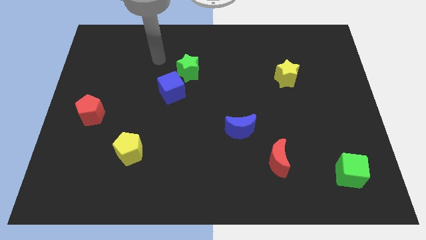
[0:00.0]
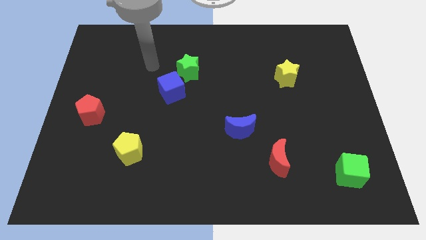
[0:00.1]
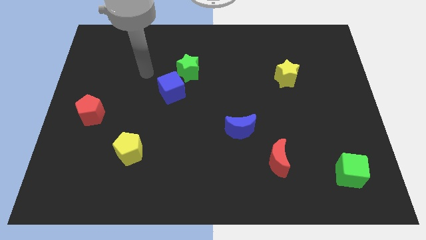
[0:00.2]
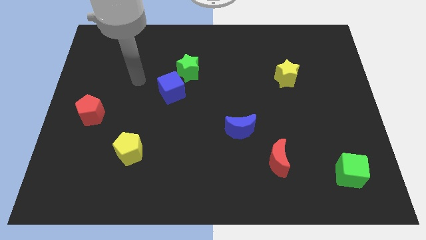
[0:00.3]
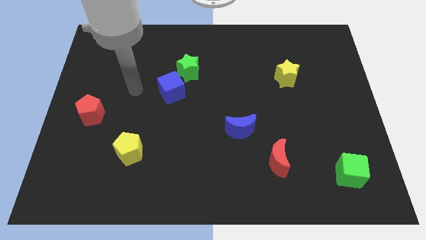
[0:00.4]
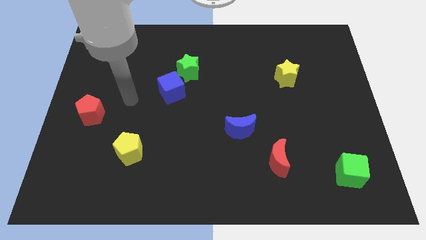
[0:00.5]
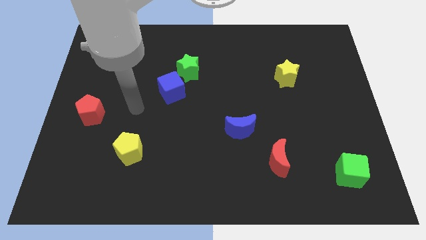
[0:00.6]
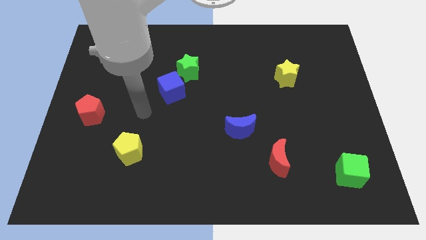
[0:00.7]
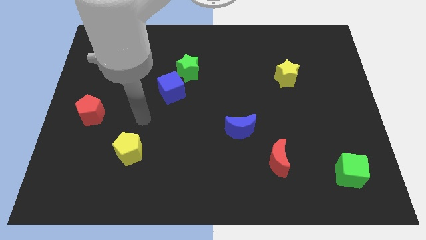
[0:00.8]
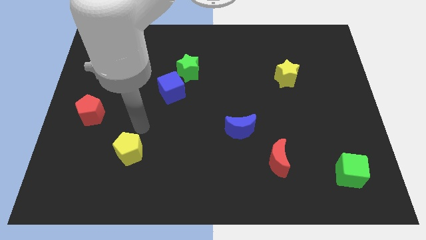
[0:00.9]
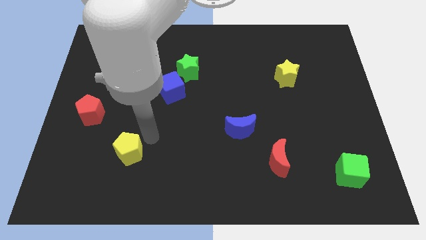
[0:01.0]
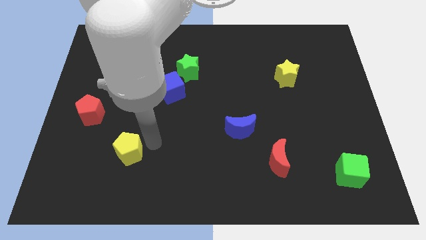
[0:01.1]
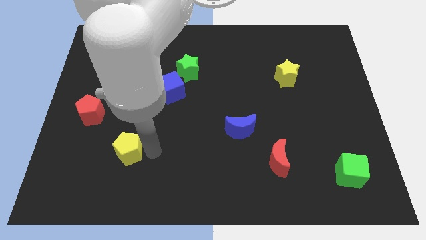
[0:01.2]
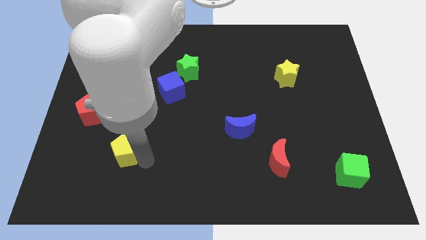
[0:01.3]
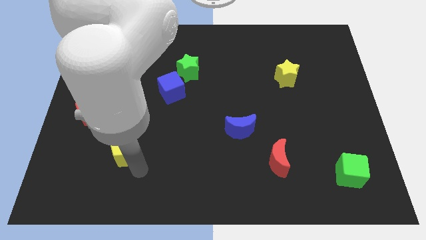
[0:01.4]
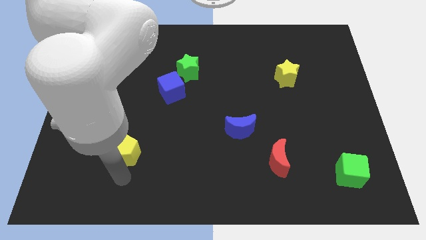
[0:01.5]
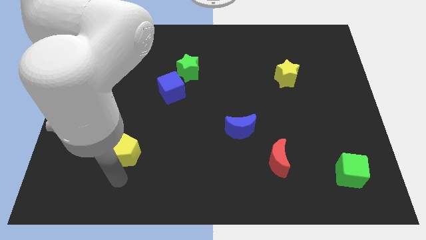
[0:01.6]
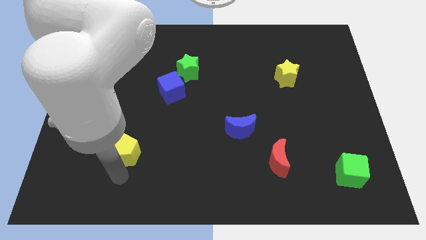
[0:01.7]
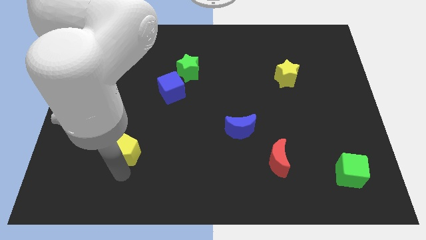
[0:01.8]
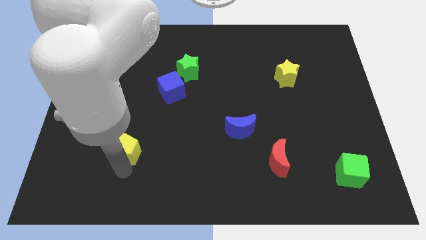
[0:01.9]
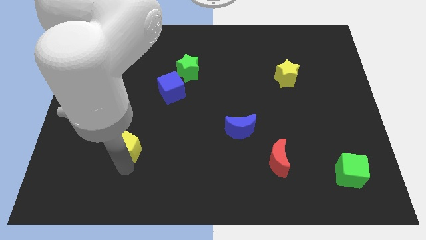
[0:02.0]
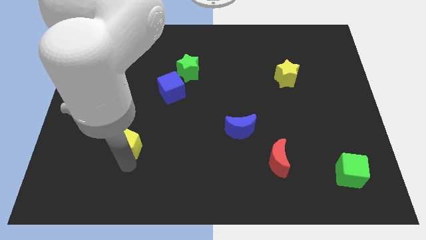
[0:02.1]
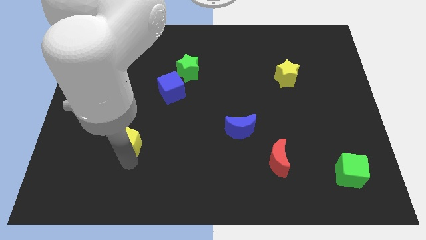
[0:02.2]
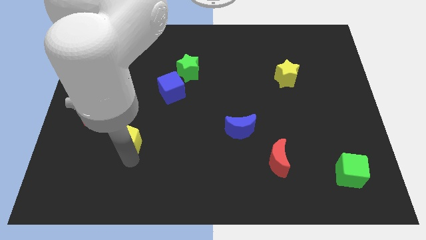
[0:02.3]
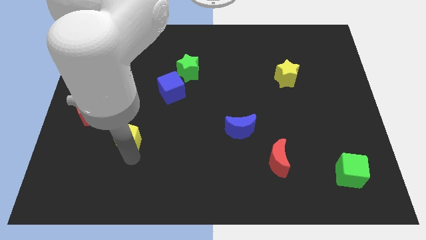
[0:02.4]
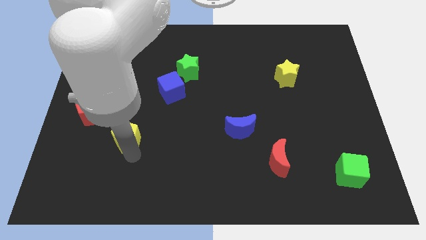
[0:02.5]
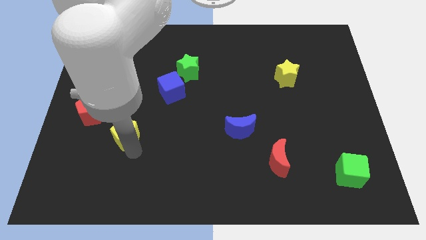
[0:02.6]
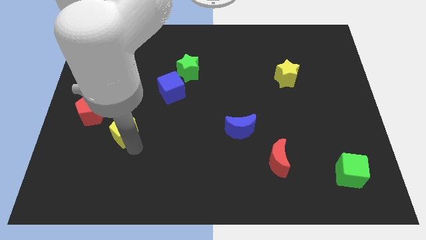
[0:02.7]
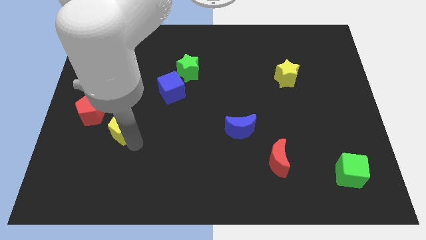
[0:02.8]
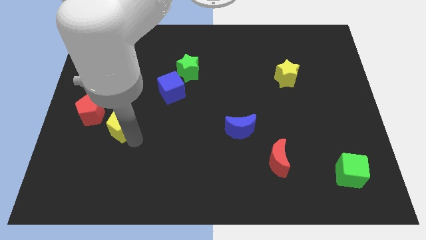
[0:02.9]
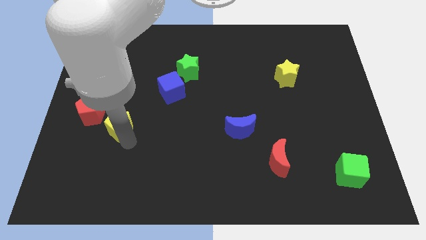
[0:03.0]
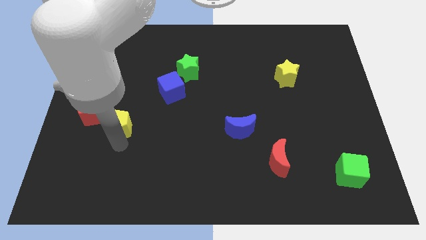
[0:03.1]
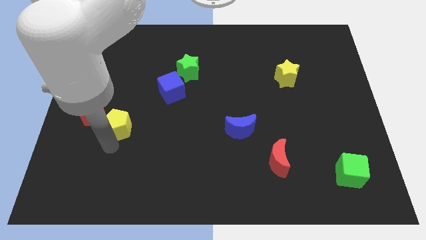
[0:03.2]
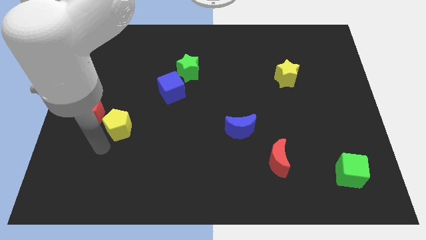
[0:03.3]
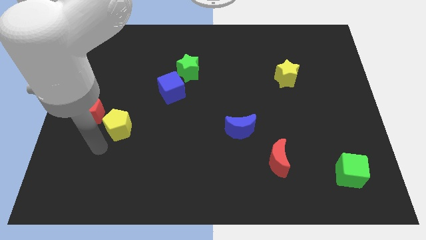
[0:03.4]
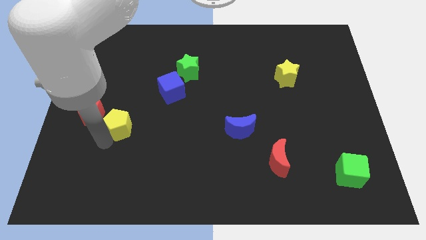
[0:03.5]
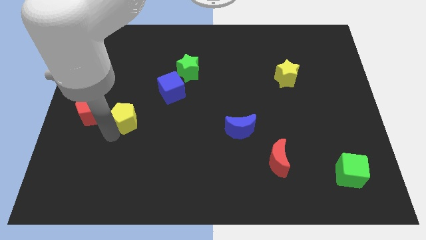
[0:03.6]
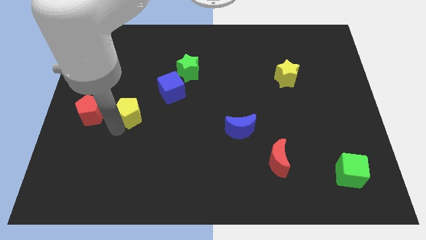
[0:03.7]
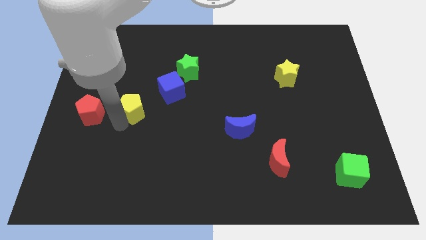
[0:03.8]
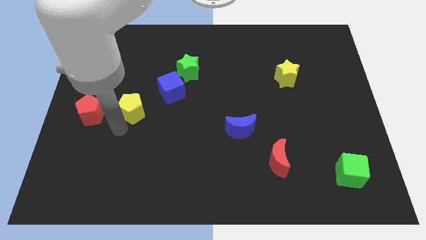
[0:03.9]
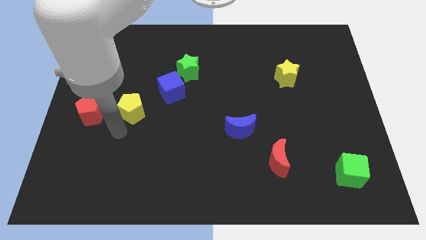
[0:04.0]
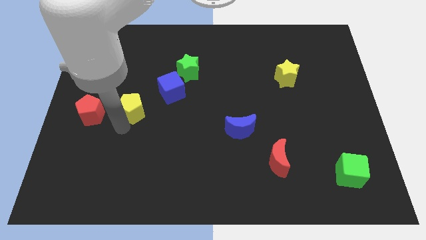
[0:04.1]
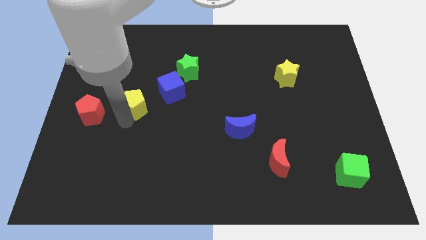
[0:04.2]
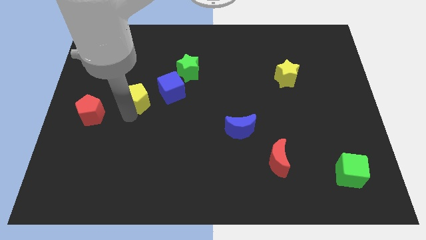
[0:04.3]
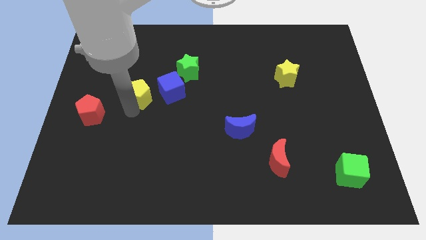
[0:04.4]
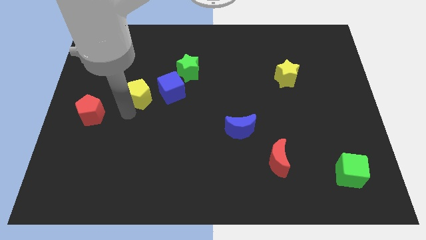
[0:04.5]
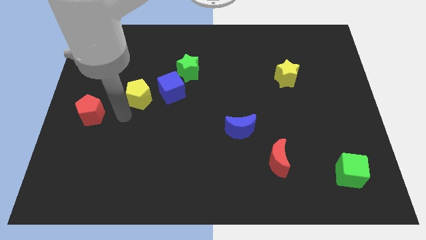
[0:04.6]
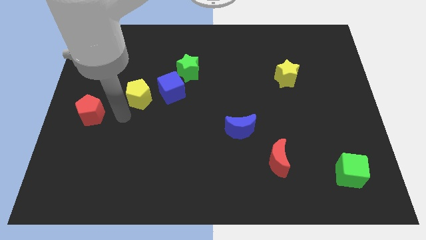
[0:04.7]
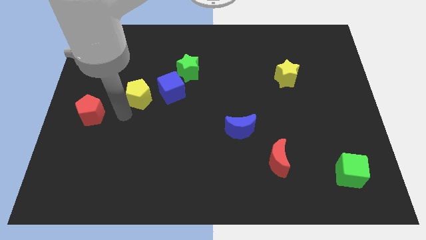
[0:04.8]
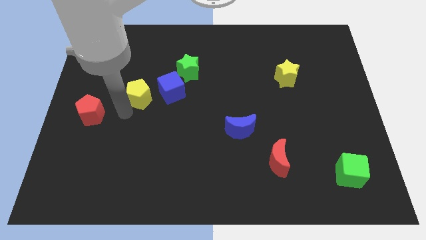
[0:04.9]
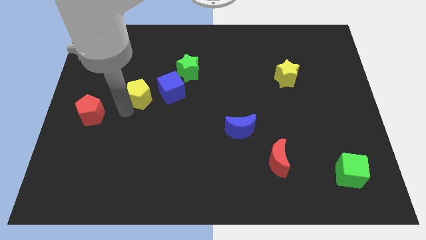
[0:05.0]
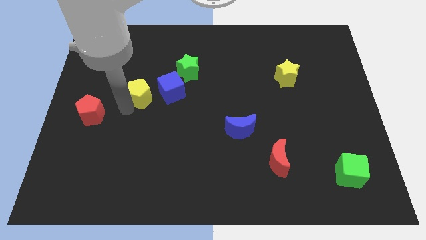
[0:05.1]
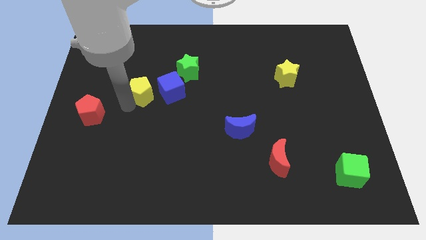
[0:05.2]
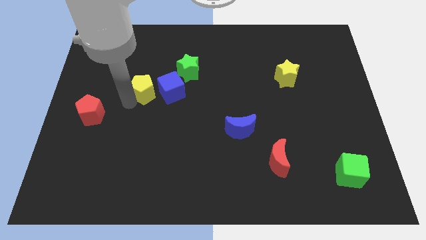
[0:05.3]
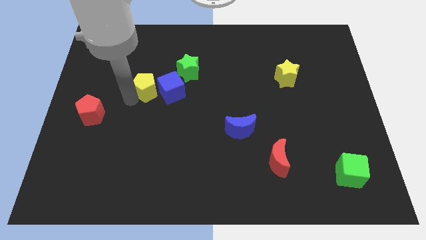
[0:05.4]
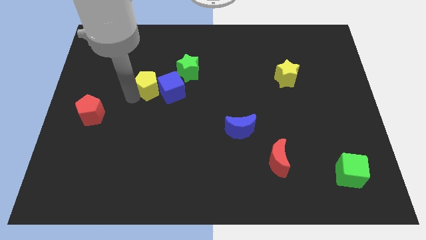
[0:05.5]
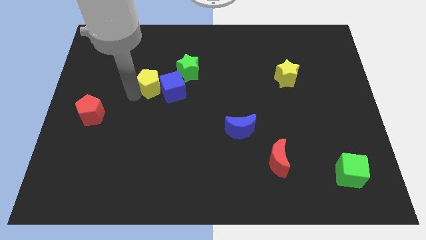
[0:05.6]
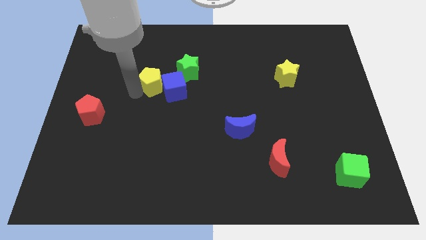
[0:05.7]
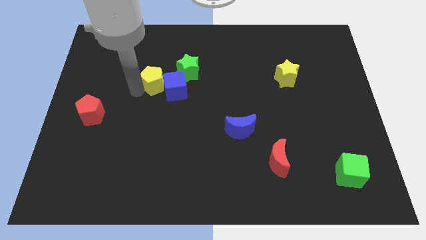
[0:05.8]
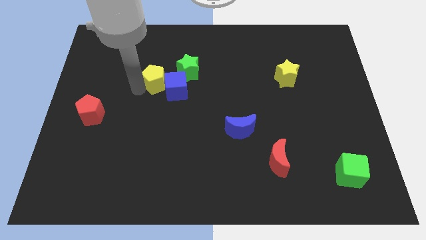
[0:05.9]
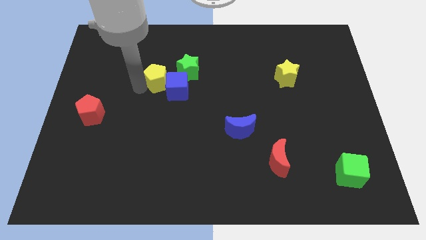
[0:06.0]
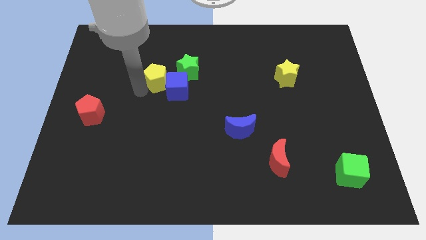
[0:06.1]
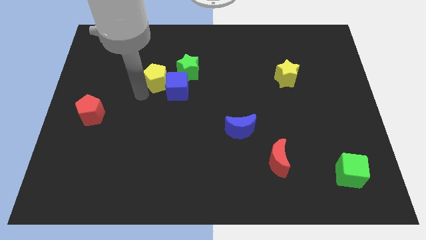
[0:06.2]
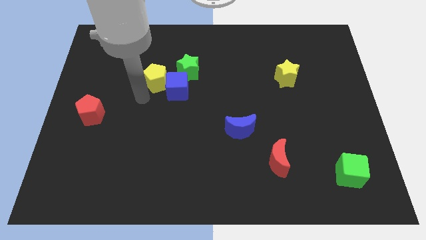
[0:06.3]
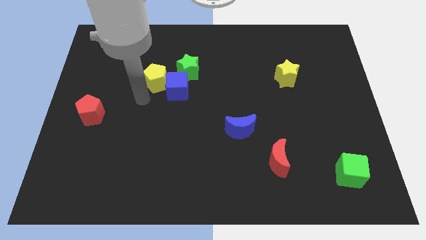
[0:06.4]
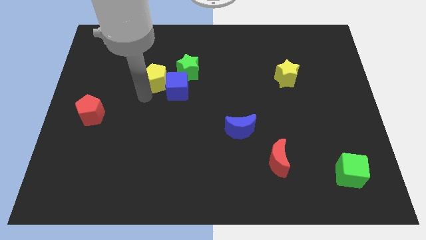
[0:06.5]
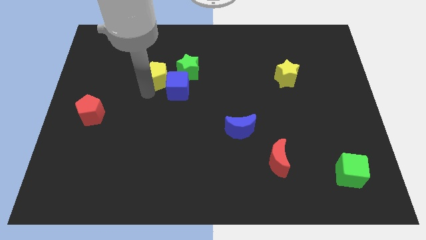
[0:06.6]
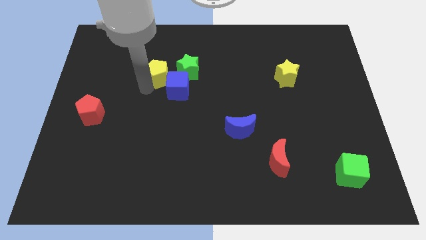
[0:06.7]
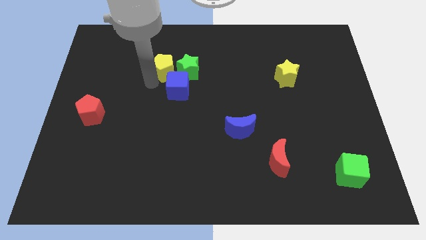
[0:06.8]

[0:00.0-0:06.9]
push the yellow pentagon to the top of the blue cube

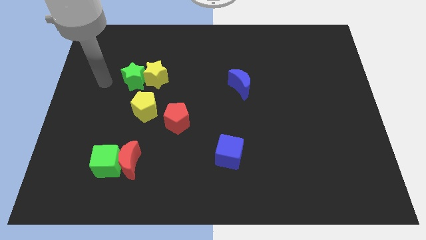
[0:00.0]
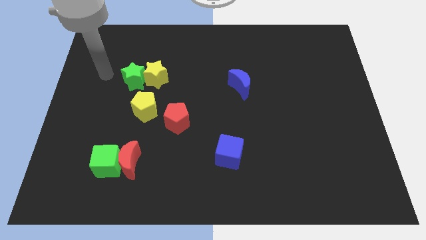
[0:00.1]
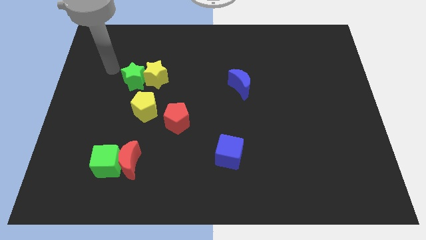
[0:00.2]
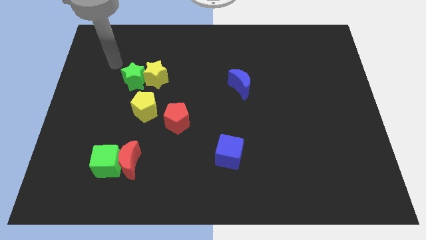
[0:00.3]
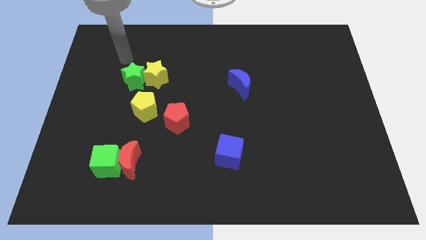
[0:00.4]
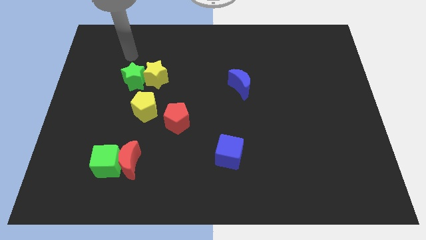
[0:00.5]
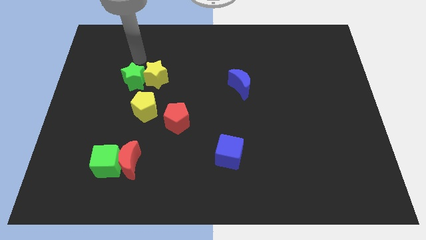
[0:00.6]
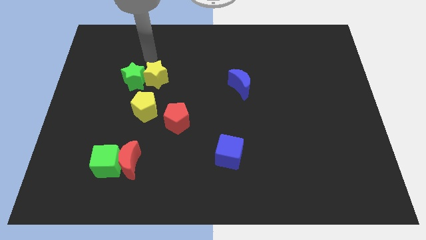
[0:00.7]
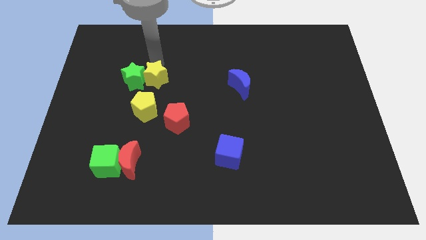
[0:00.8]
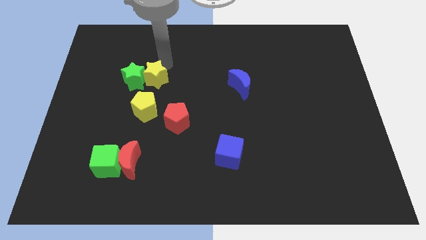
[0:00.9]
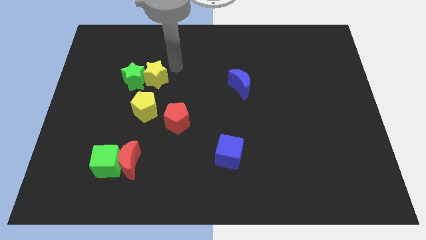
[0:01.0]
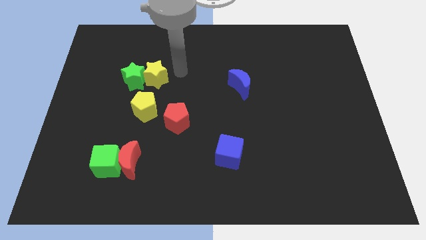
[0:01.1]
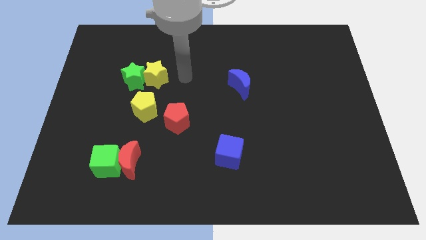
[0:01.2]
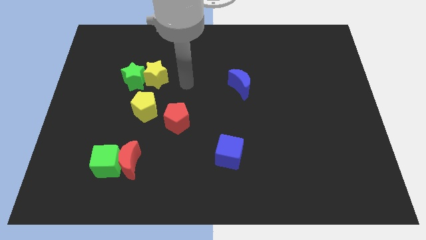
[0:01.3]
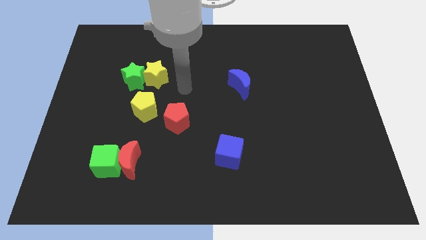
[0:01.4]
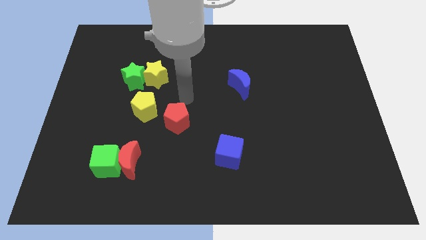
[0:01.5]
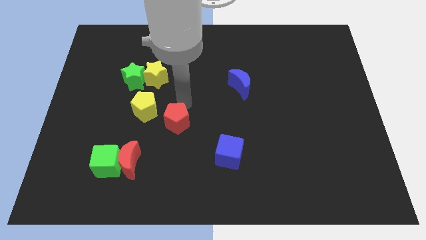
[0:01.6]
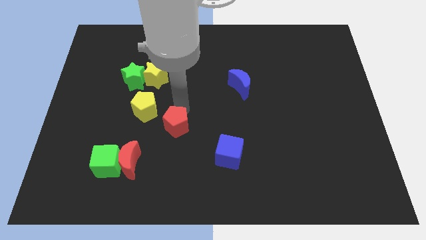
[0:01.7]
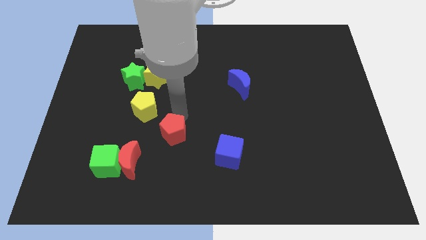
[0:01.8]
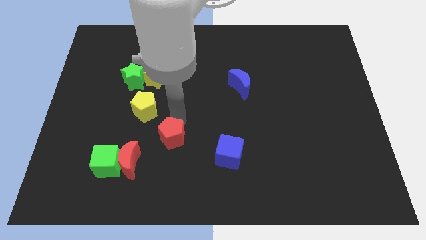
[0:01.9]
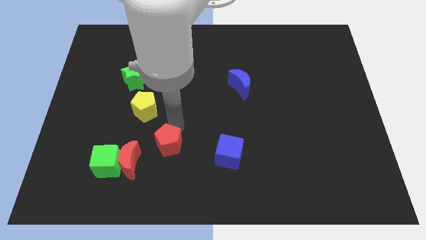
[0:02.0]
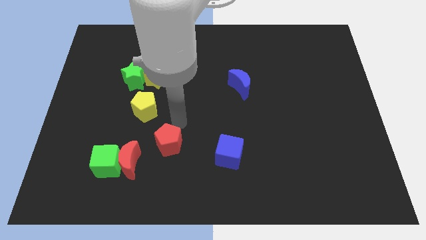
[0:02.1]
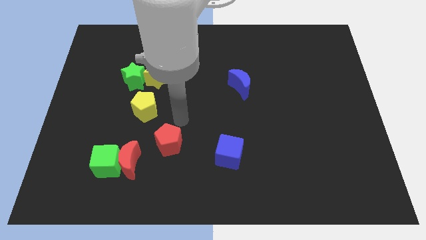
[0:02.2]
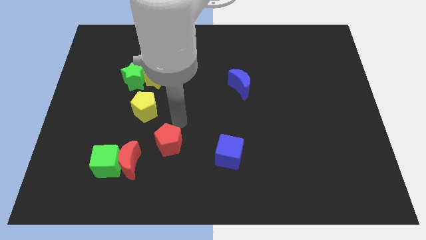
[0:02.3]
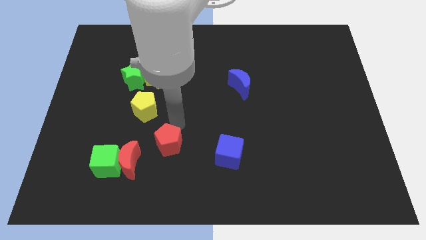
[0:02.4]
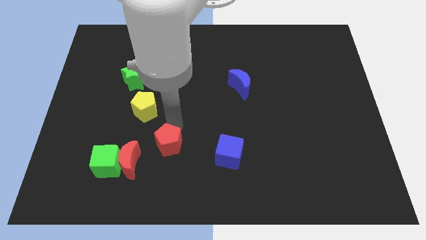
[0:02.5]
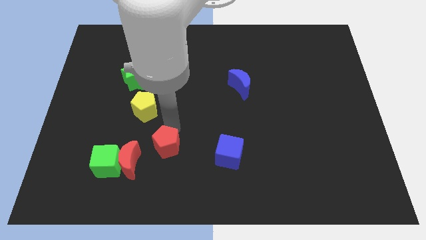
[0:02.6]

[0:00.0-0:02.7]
slide the red pentagon just right of the green cube
